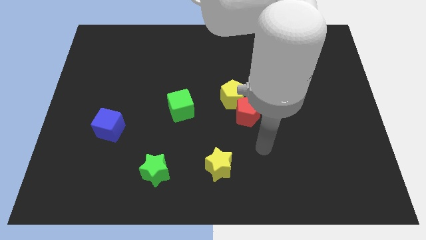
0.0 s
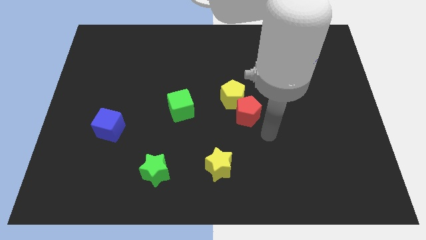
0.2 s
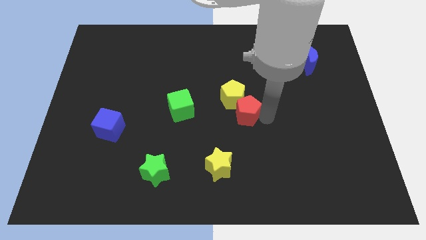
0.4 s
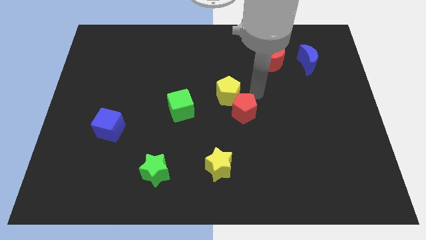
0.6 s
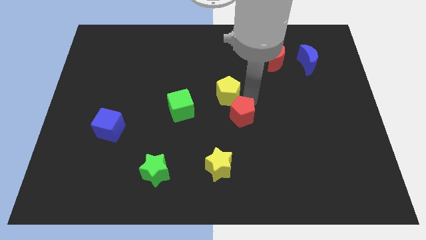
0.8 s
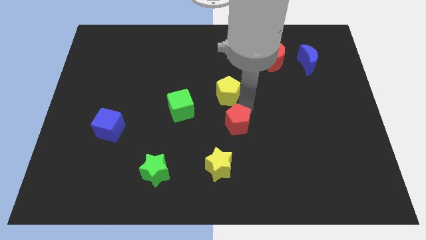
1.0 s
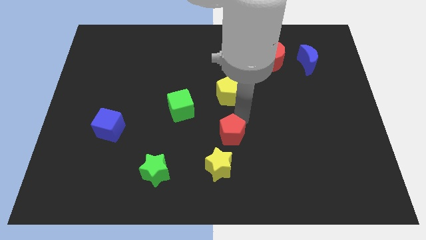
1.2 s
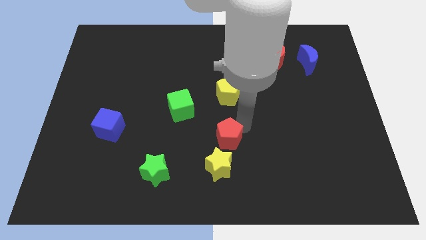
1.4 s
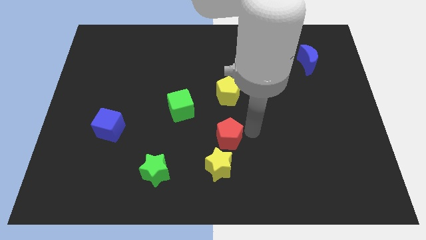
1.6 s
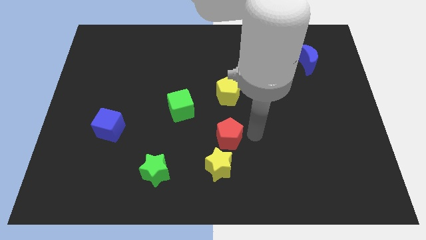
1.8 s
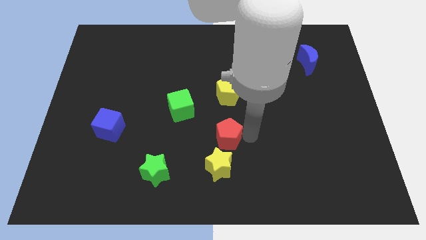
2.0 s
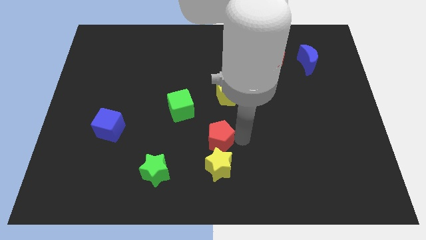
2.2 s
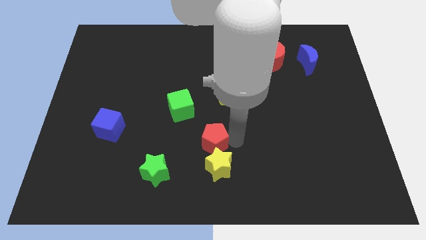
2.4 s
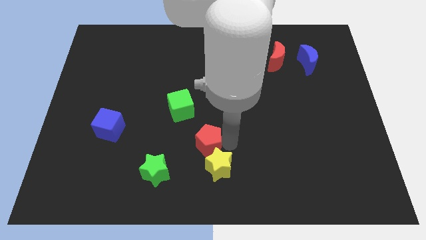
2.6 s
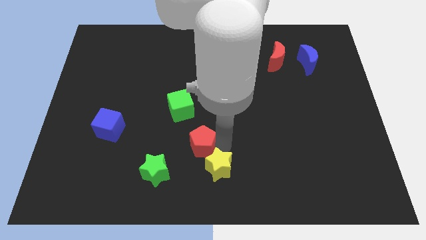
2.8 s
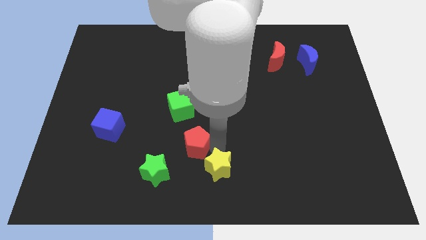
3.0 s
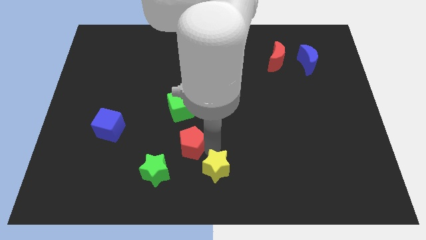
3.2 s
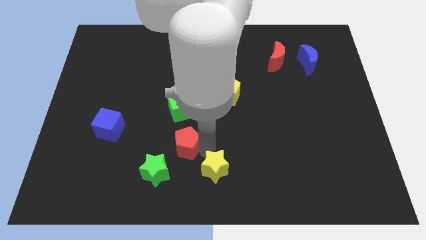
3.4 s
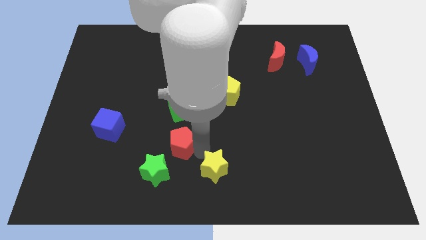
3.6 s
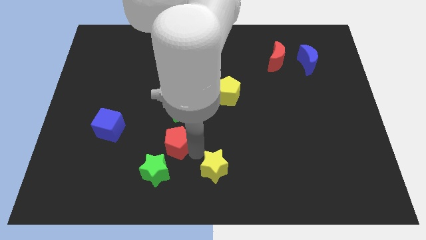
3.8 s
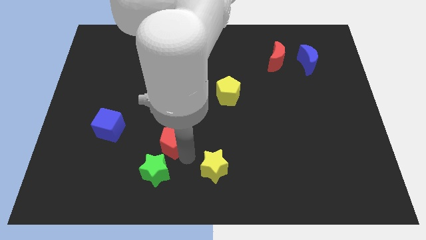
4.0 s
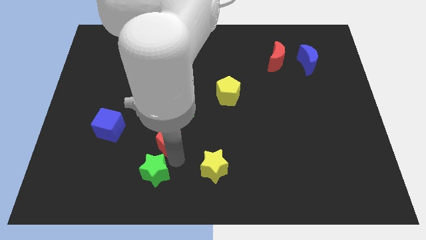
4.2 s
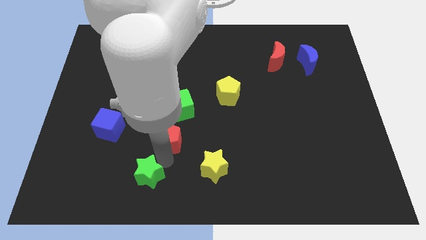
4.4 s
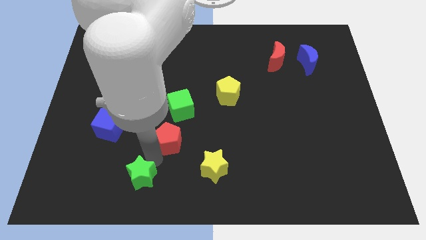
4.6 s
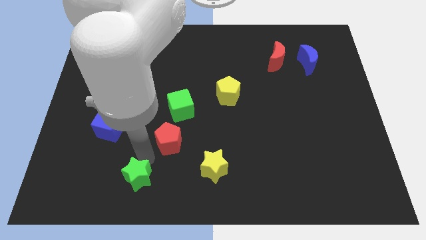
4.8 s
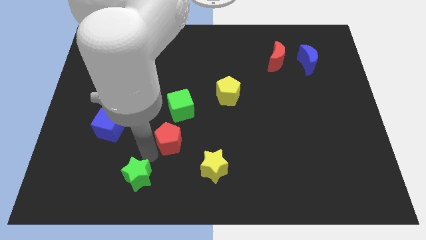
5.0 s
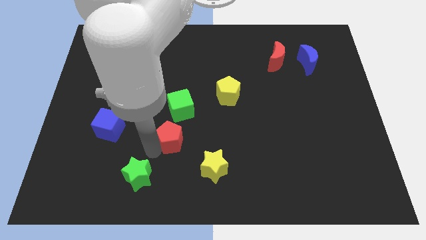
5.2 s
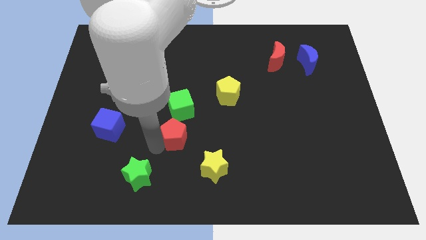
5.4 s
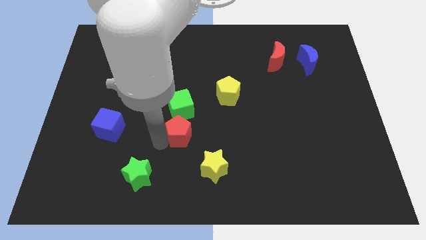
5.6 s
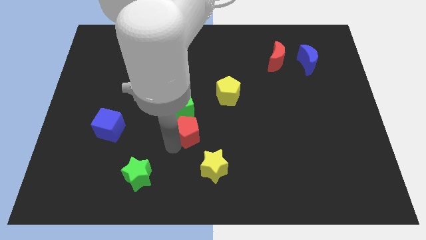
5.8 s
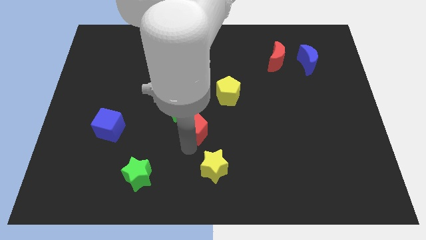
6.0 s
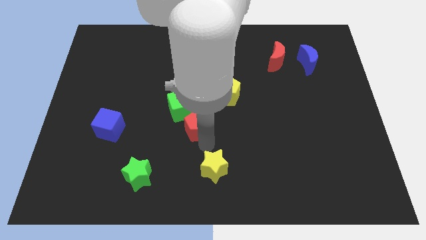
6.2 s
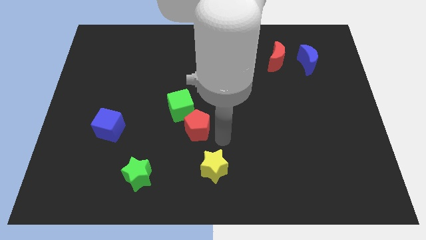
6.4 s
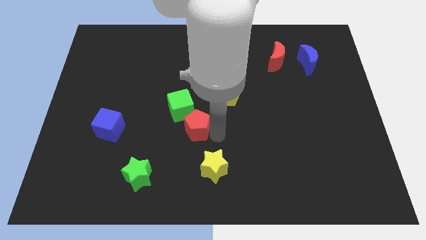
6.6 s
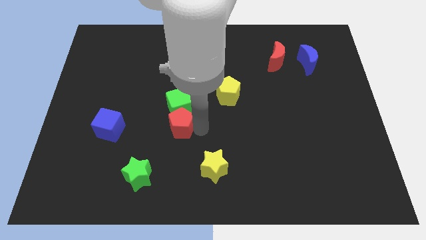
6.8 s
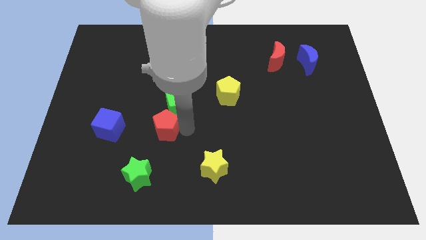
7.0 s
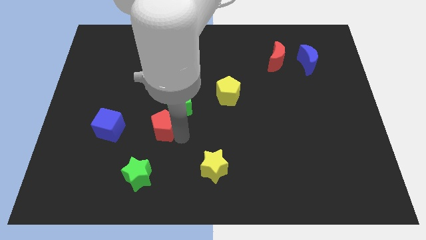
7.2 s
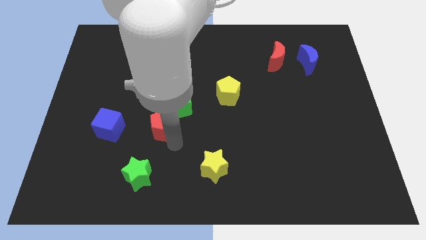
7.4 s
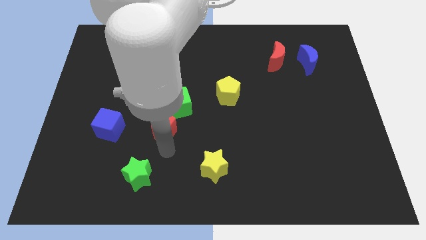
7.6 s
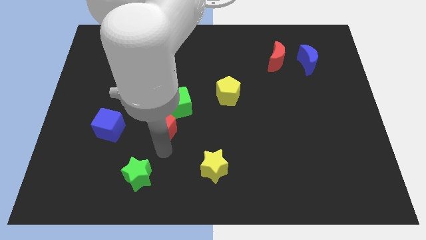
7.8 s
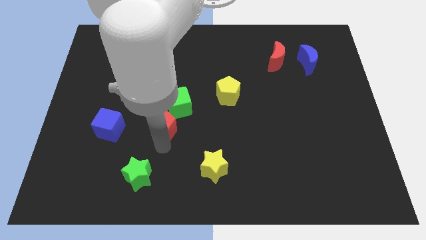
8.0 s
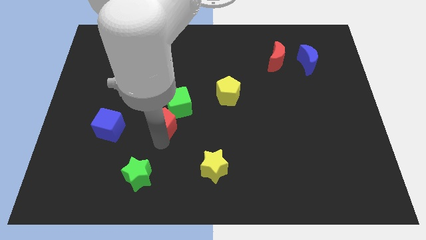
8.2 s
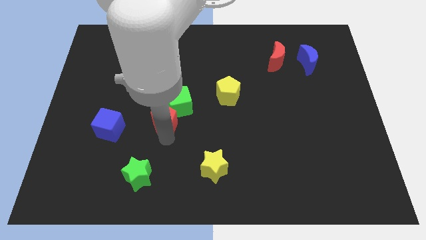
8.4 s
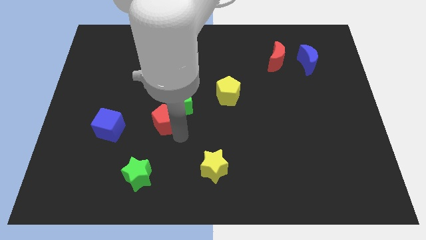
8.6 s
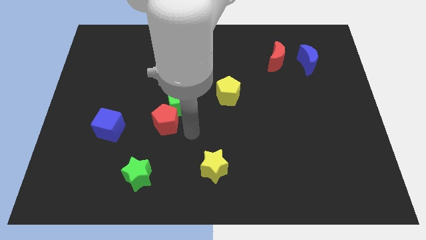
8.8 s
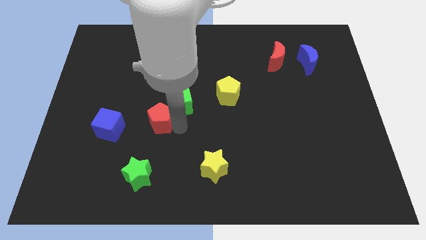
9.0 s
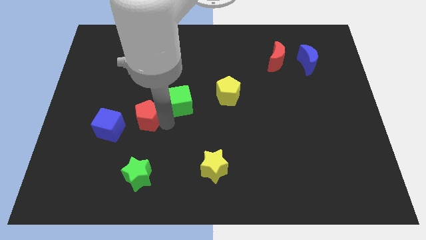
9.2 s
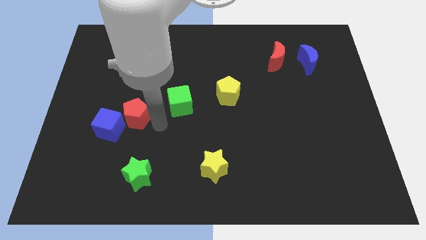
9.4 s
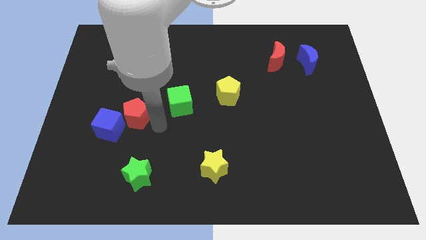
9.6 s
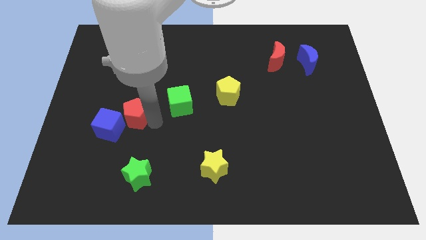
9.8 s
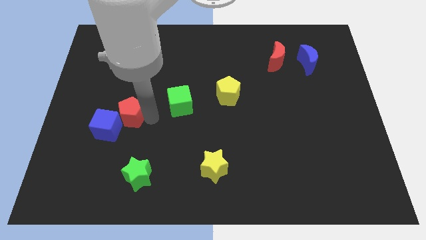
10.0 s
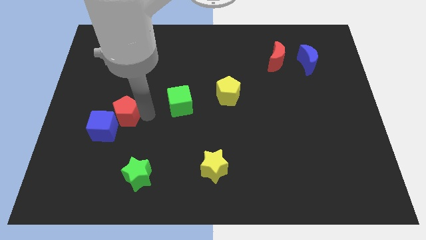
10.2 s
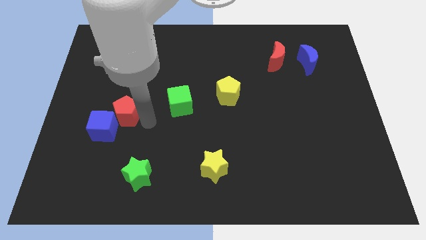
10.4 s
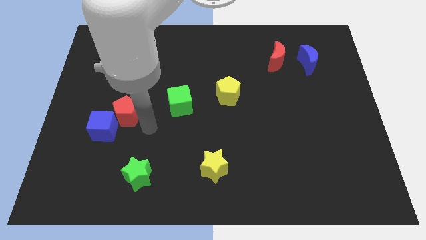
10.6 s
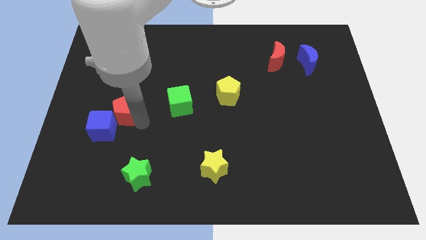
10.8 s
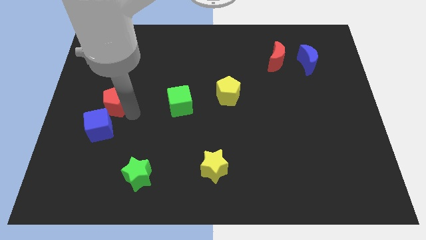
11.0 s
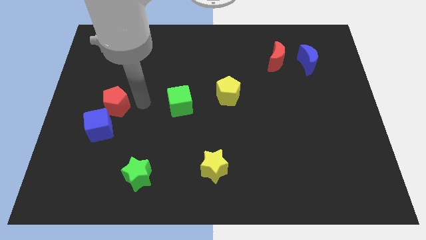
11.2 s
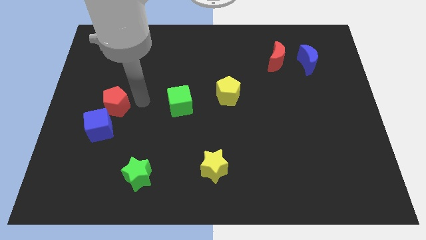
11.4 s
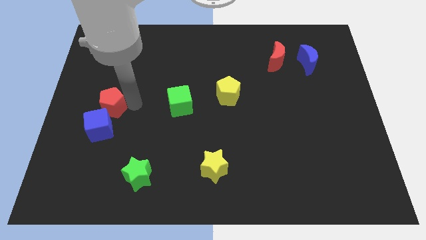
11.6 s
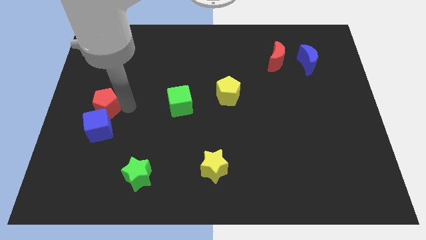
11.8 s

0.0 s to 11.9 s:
move the red pentagon to the top left side of the blue cube
